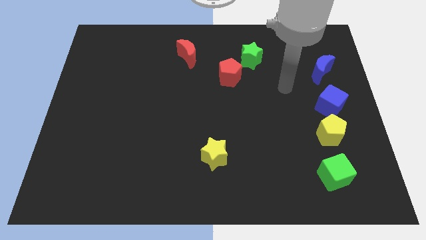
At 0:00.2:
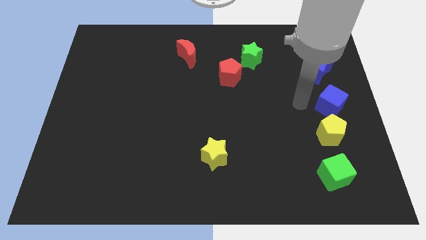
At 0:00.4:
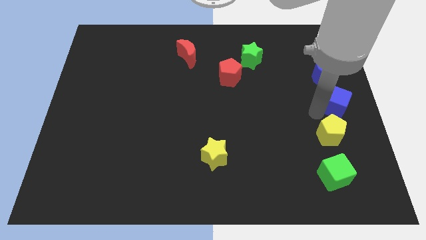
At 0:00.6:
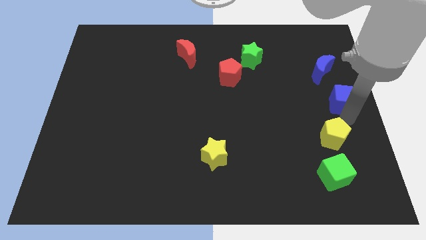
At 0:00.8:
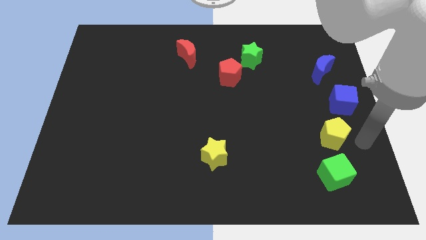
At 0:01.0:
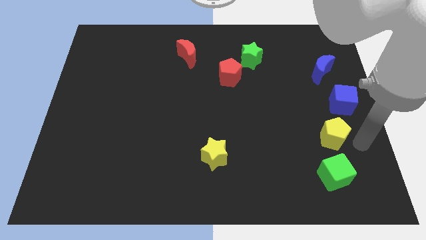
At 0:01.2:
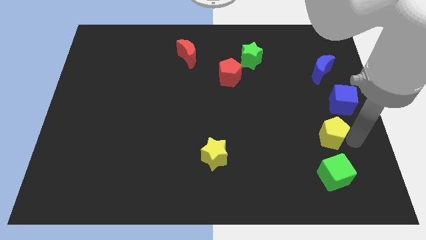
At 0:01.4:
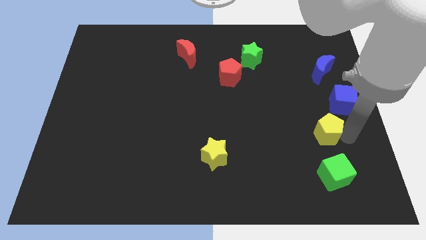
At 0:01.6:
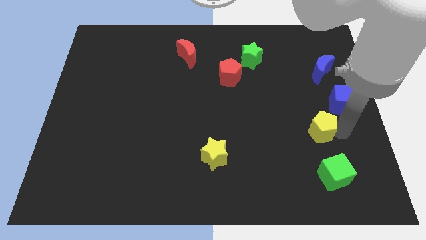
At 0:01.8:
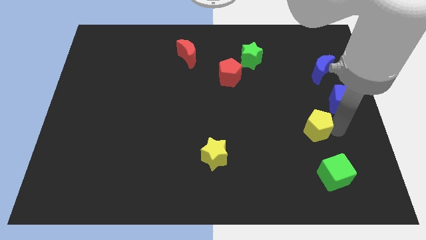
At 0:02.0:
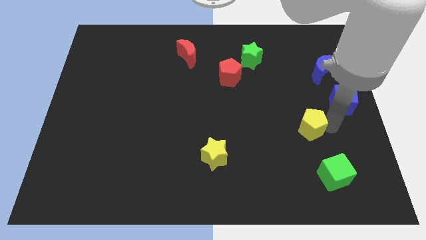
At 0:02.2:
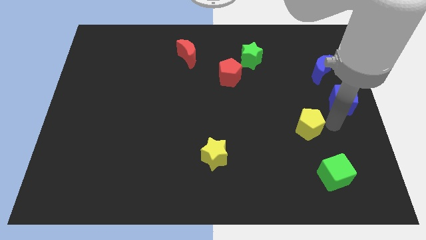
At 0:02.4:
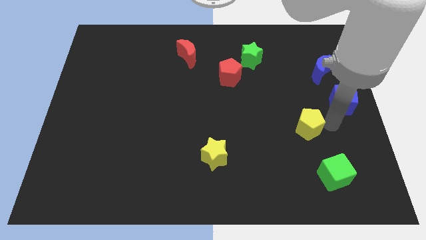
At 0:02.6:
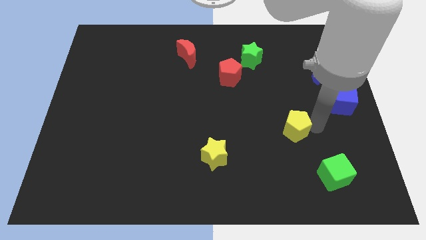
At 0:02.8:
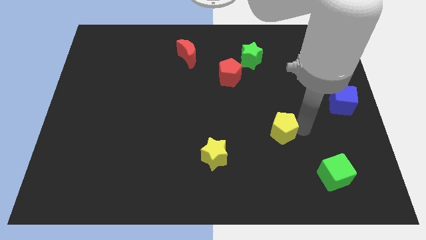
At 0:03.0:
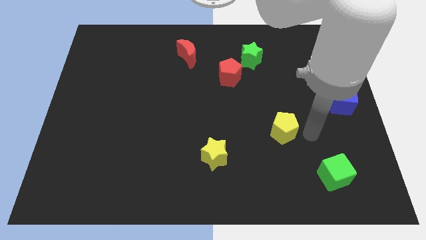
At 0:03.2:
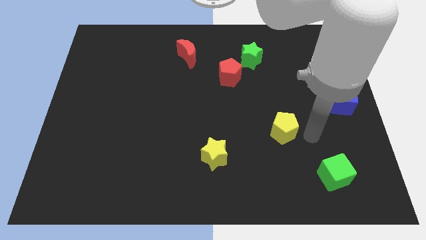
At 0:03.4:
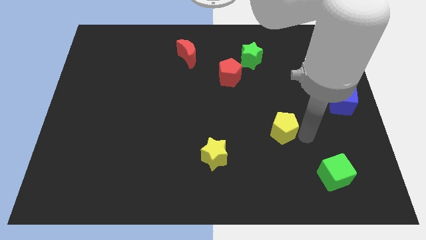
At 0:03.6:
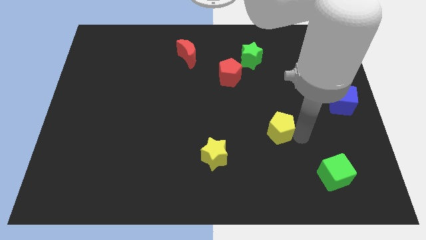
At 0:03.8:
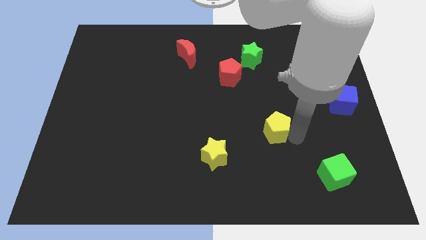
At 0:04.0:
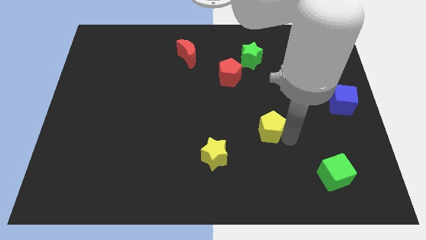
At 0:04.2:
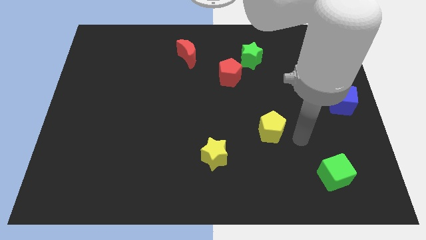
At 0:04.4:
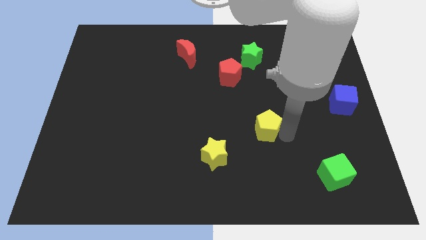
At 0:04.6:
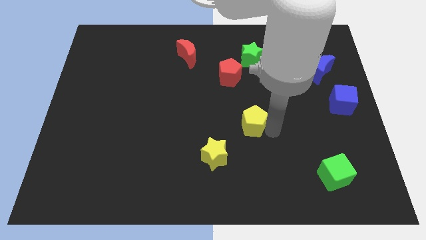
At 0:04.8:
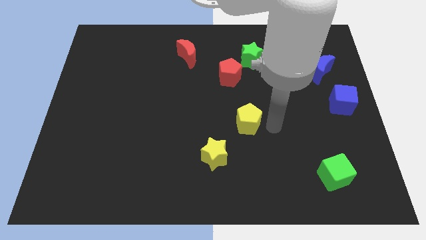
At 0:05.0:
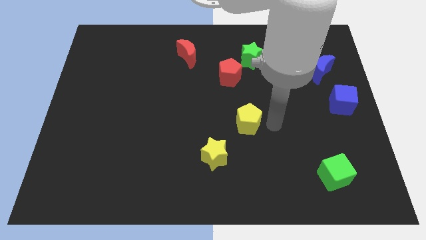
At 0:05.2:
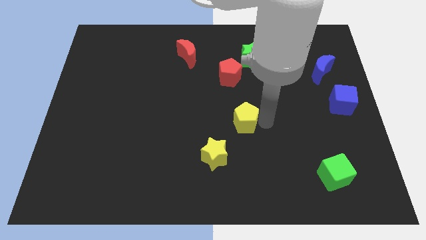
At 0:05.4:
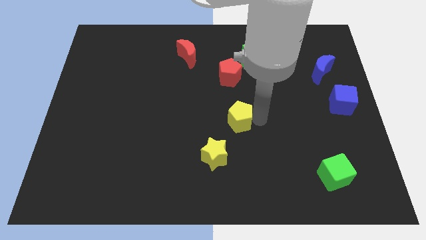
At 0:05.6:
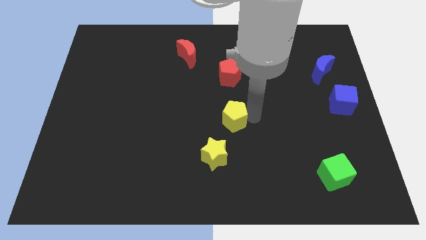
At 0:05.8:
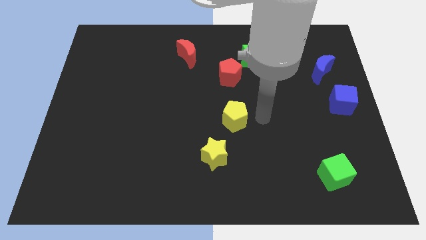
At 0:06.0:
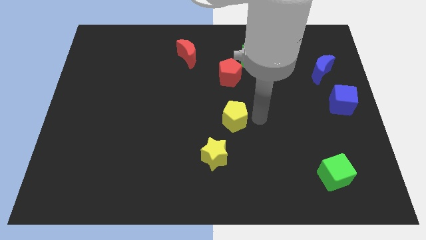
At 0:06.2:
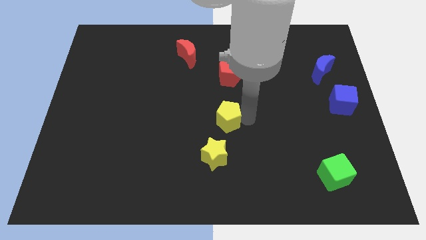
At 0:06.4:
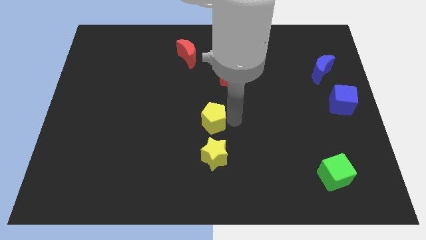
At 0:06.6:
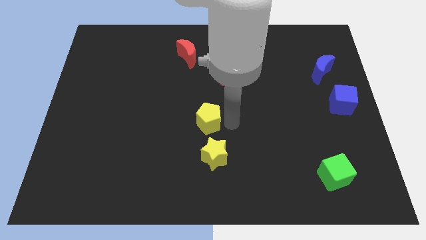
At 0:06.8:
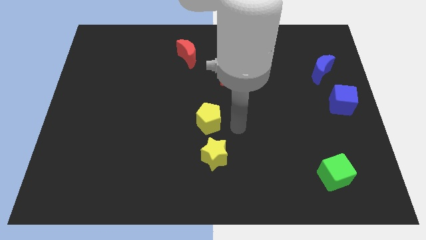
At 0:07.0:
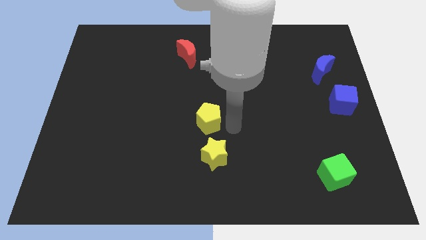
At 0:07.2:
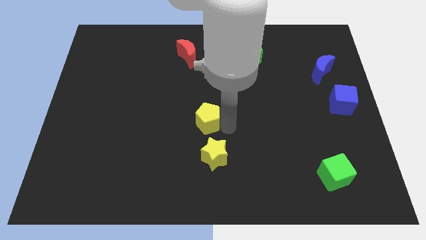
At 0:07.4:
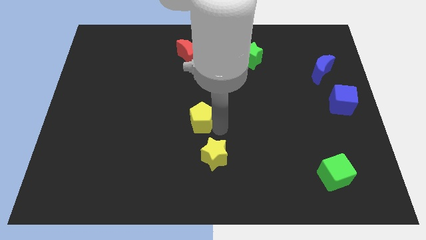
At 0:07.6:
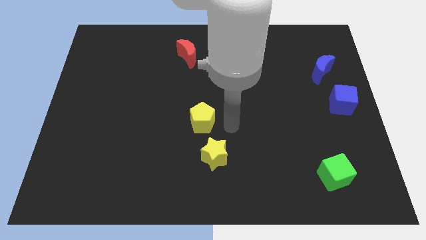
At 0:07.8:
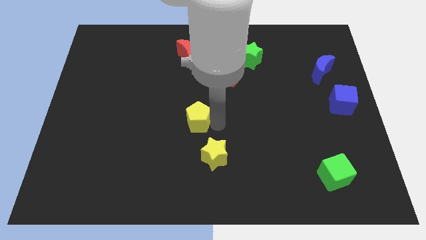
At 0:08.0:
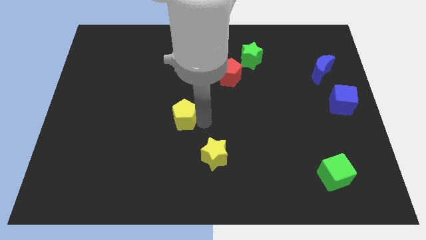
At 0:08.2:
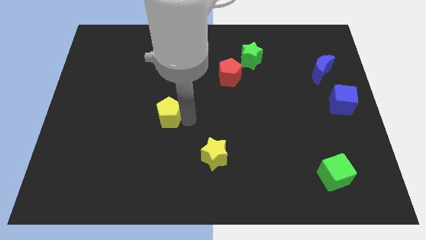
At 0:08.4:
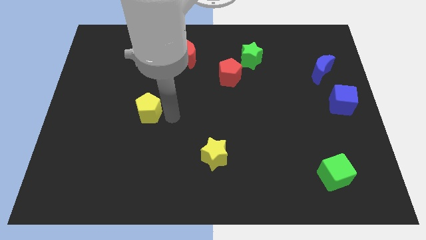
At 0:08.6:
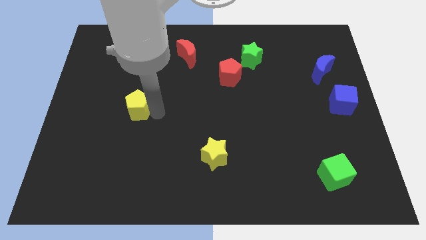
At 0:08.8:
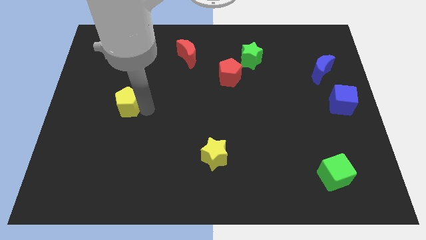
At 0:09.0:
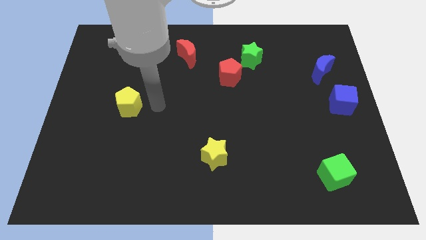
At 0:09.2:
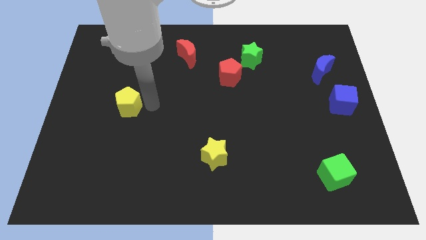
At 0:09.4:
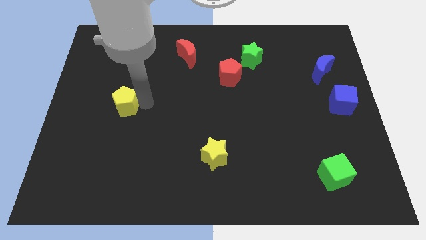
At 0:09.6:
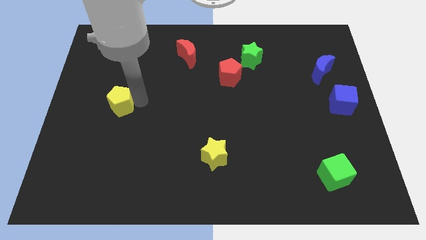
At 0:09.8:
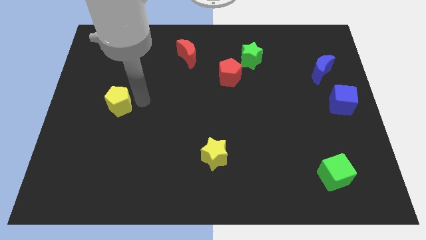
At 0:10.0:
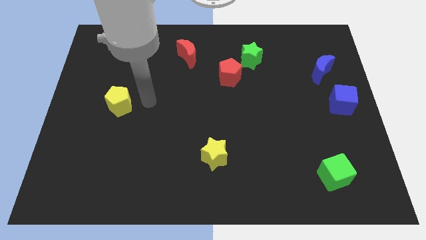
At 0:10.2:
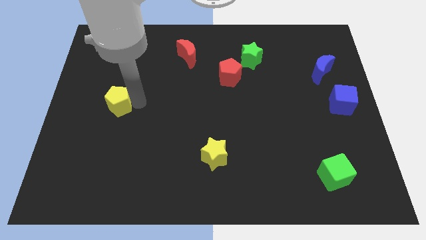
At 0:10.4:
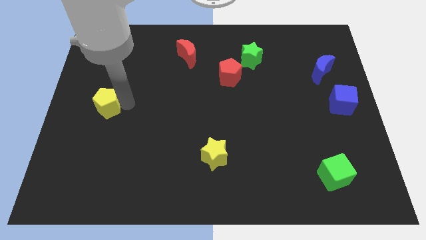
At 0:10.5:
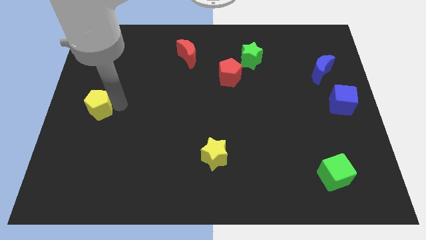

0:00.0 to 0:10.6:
move the yellow pentagon to the left side

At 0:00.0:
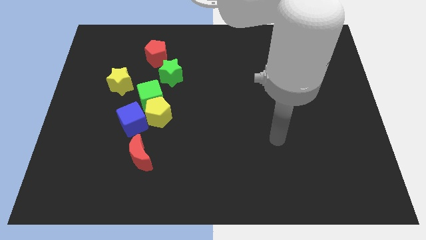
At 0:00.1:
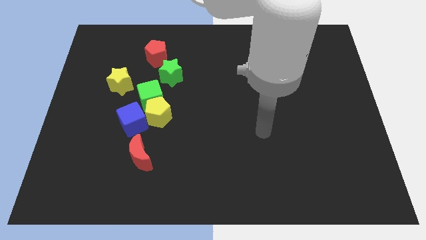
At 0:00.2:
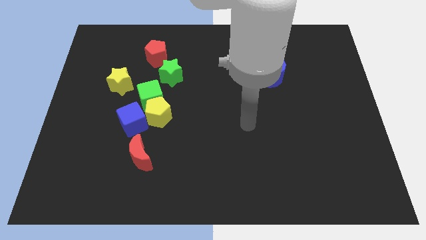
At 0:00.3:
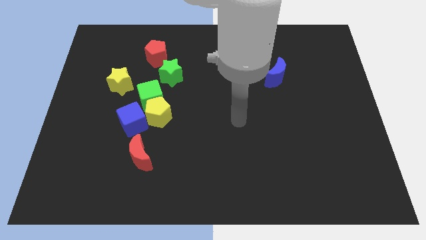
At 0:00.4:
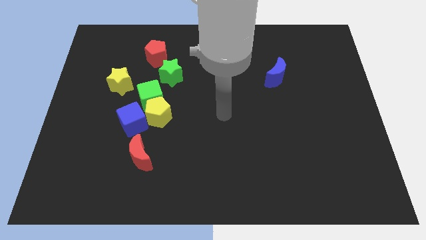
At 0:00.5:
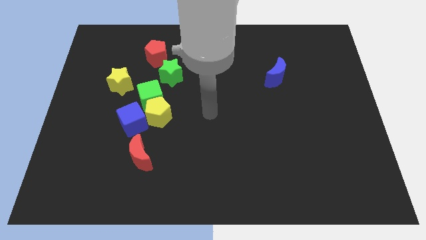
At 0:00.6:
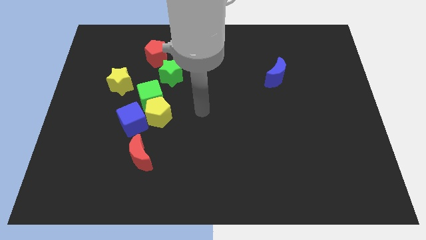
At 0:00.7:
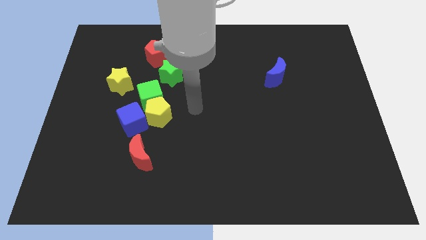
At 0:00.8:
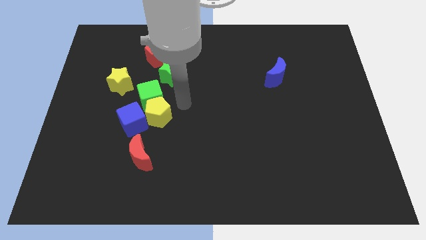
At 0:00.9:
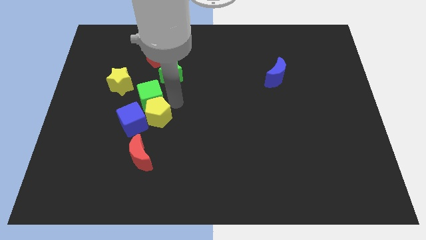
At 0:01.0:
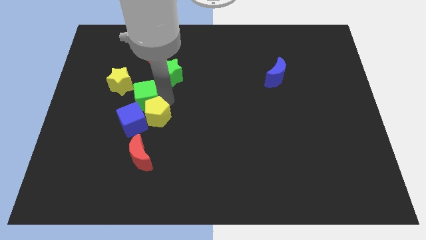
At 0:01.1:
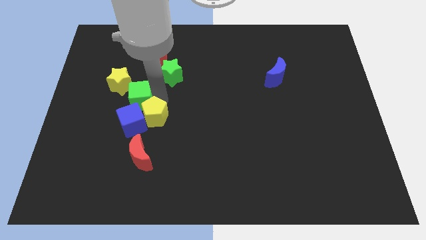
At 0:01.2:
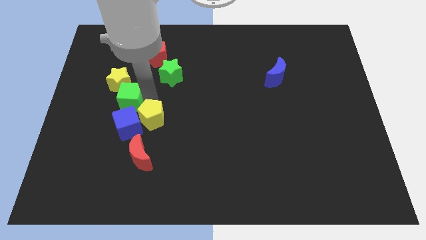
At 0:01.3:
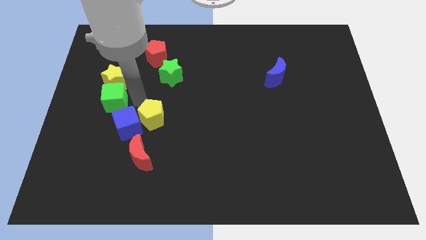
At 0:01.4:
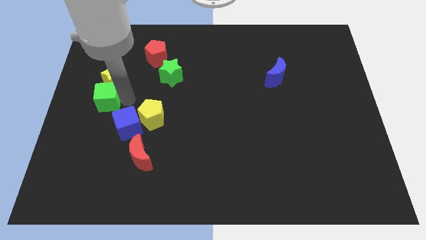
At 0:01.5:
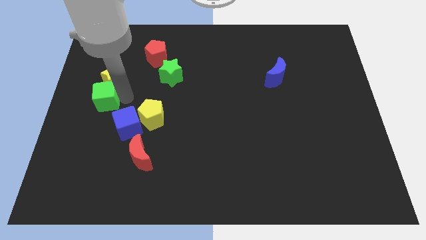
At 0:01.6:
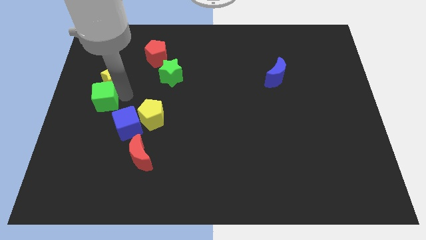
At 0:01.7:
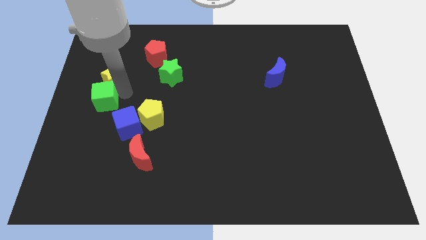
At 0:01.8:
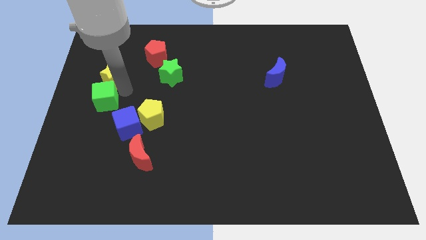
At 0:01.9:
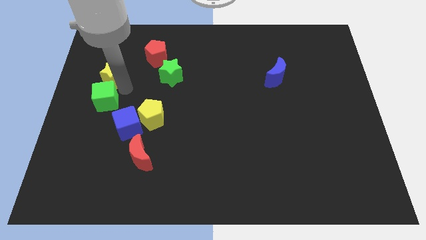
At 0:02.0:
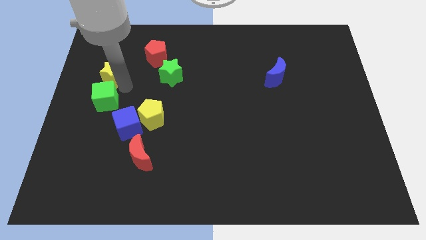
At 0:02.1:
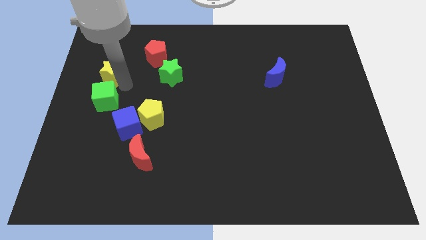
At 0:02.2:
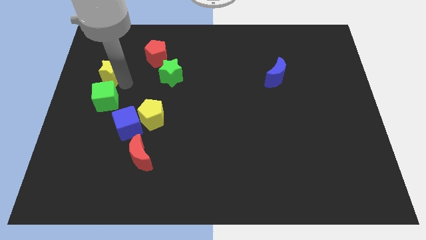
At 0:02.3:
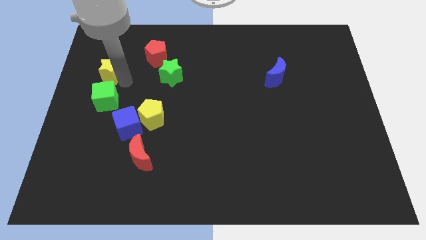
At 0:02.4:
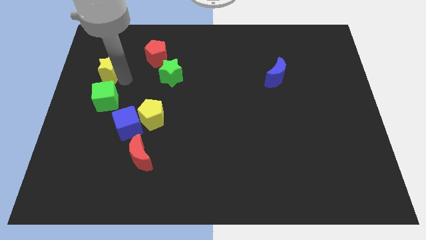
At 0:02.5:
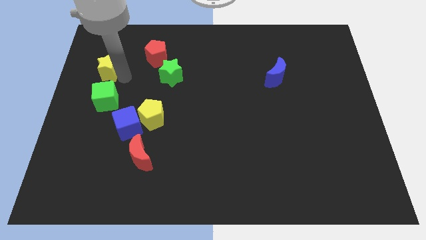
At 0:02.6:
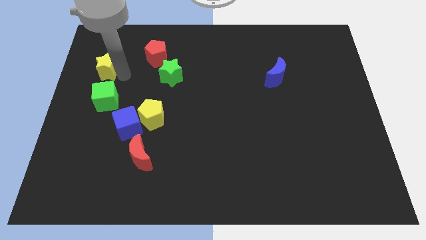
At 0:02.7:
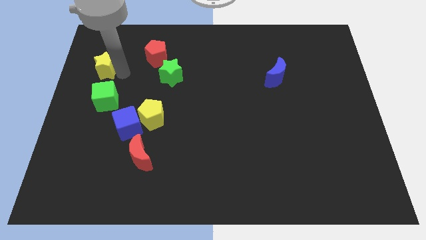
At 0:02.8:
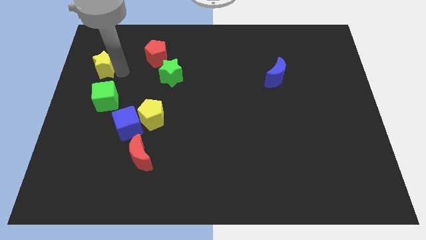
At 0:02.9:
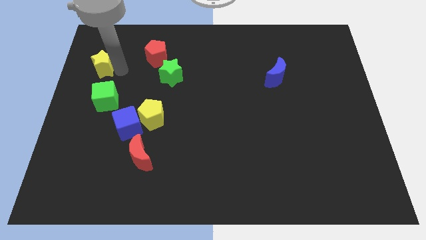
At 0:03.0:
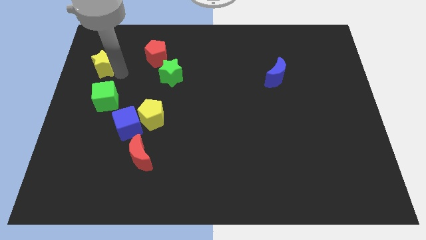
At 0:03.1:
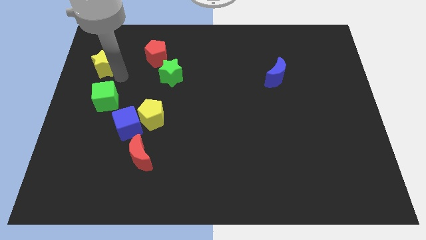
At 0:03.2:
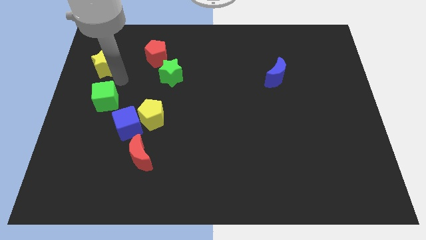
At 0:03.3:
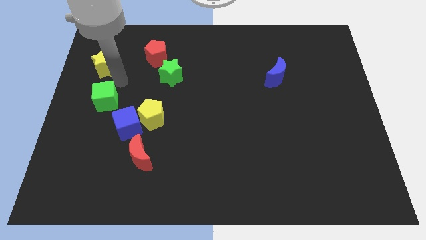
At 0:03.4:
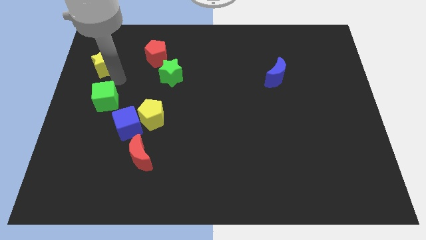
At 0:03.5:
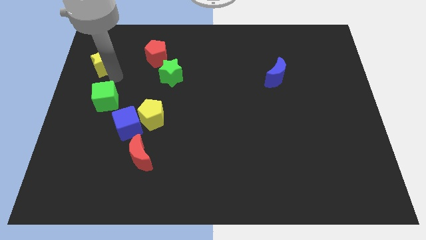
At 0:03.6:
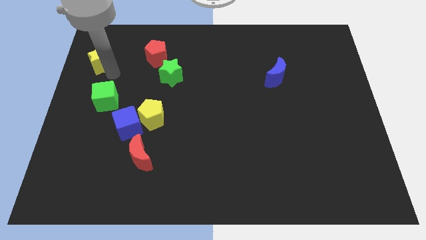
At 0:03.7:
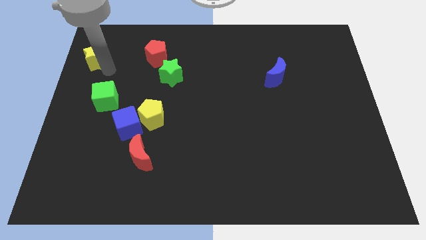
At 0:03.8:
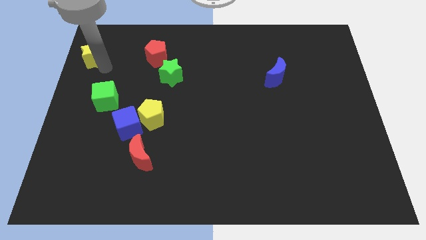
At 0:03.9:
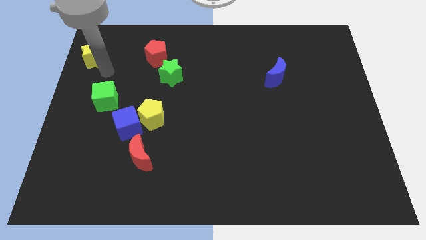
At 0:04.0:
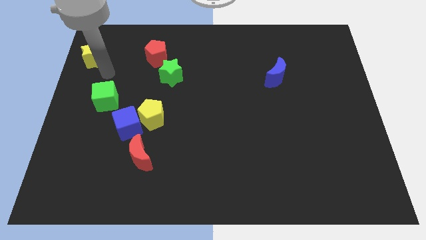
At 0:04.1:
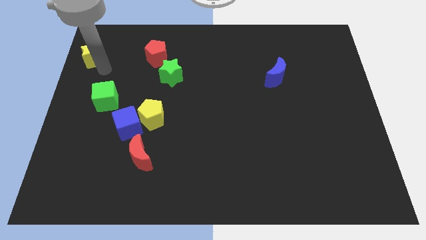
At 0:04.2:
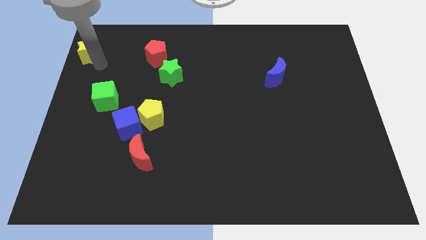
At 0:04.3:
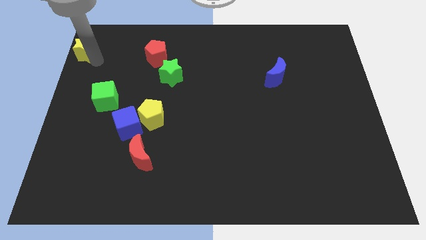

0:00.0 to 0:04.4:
slide the yellow star to the top left corner
